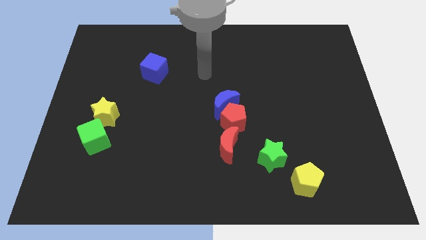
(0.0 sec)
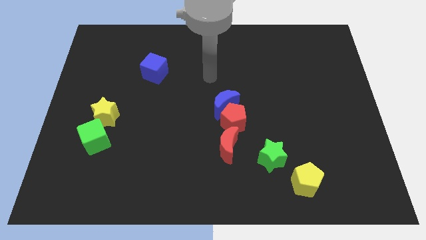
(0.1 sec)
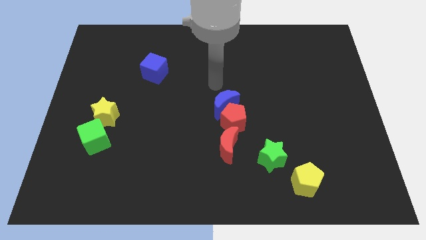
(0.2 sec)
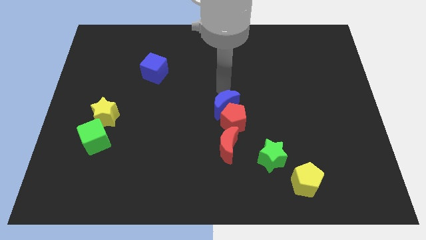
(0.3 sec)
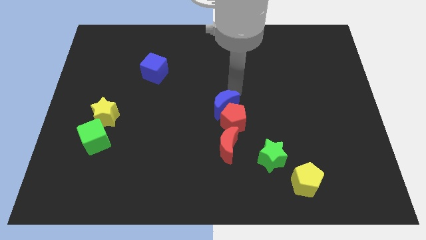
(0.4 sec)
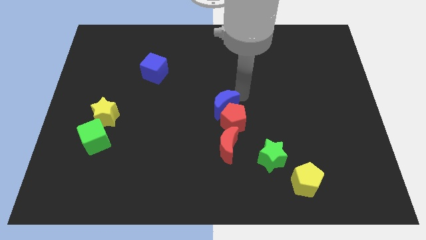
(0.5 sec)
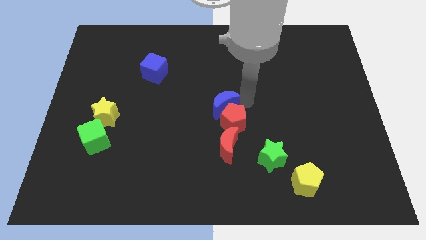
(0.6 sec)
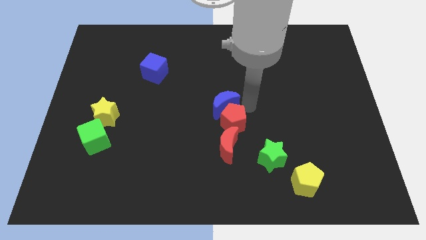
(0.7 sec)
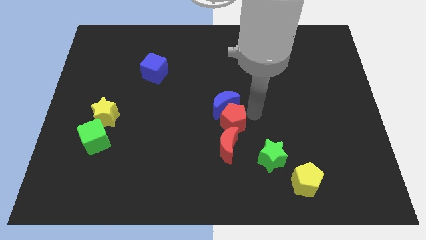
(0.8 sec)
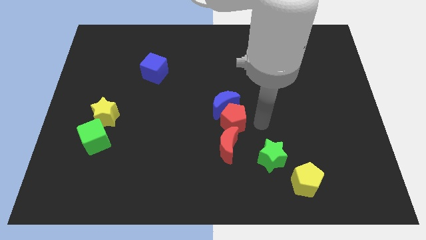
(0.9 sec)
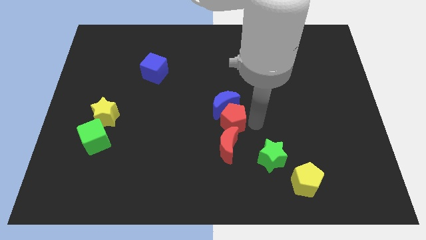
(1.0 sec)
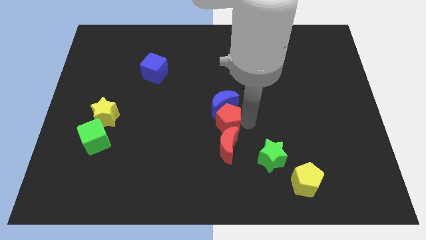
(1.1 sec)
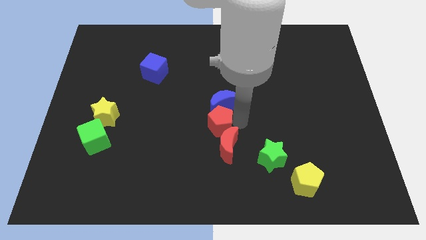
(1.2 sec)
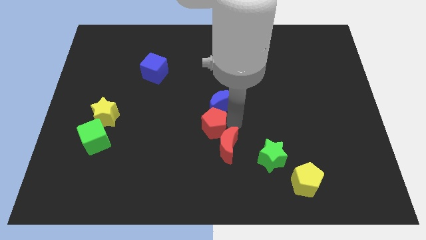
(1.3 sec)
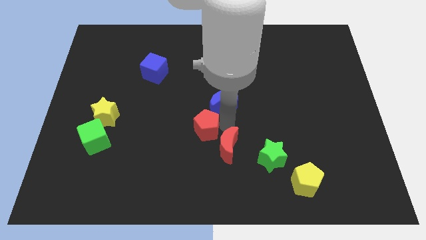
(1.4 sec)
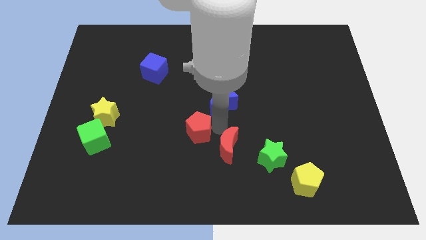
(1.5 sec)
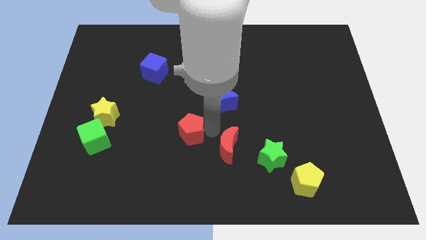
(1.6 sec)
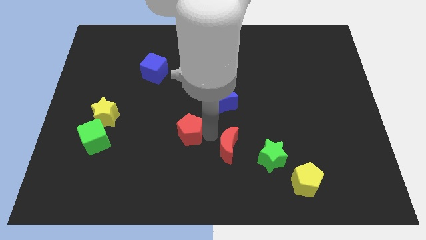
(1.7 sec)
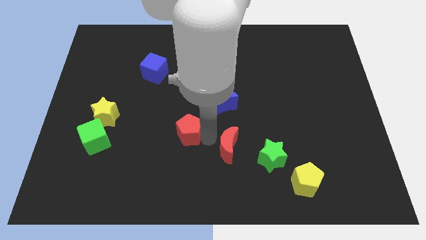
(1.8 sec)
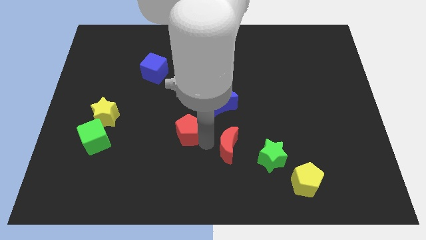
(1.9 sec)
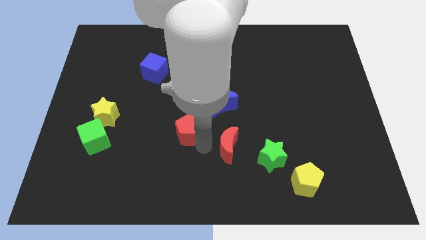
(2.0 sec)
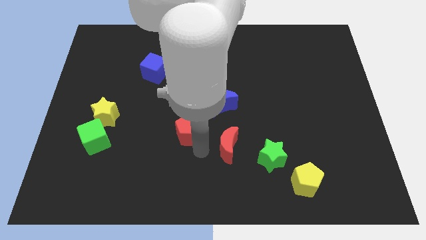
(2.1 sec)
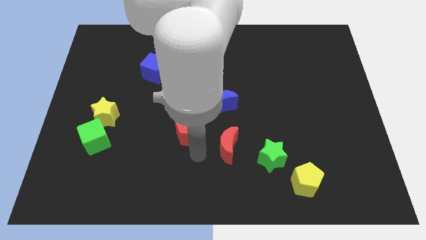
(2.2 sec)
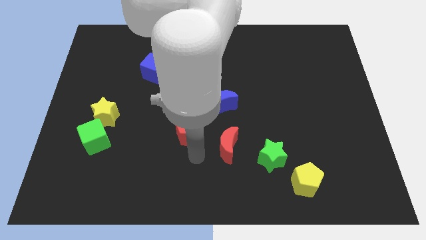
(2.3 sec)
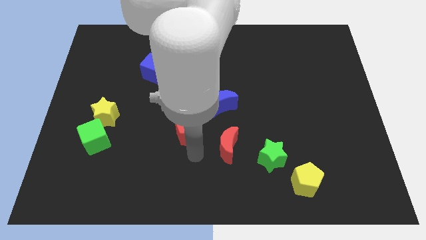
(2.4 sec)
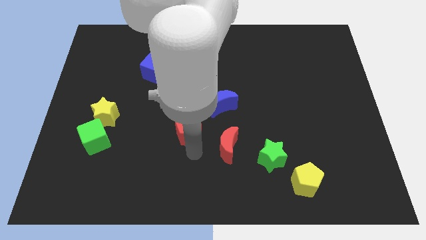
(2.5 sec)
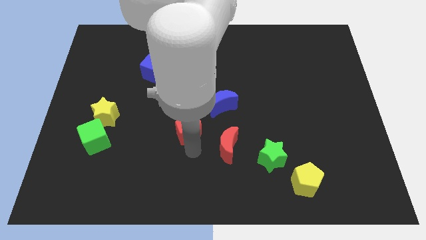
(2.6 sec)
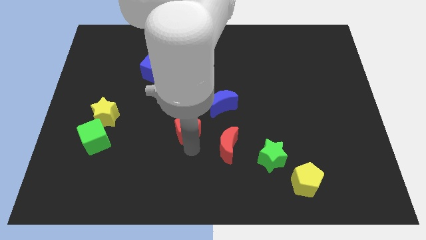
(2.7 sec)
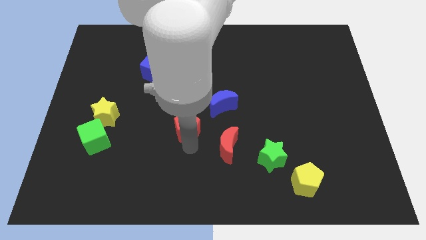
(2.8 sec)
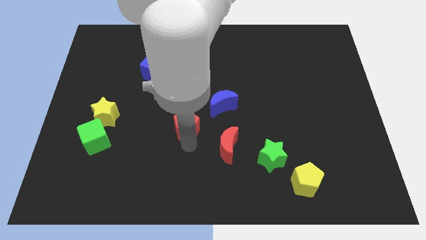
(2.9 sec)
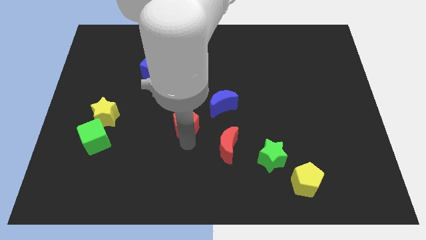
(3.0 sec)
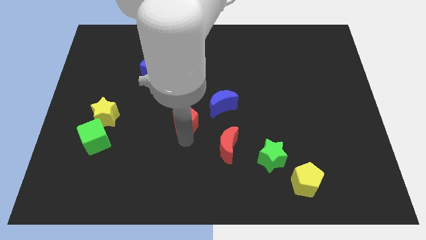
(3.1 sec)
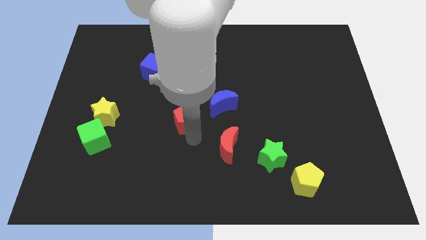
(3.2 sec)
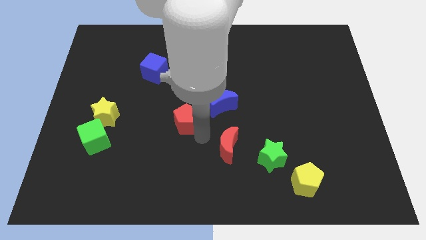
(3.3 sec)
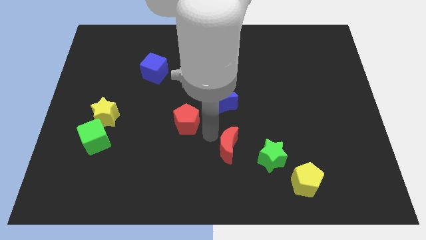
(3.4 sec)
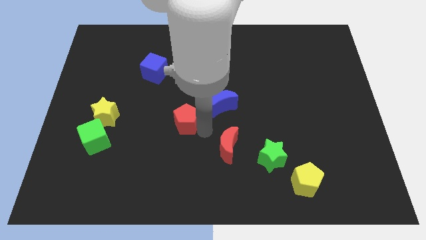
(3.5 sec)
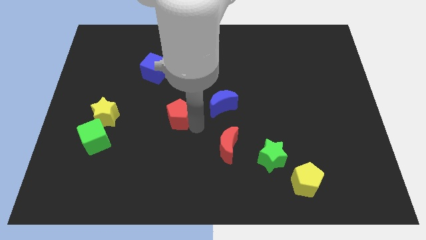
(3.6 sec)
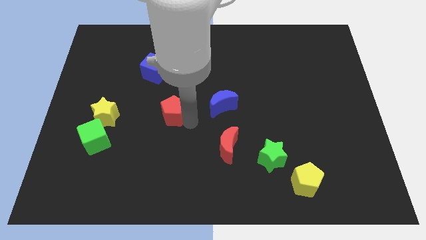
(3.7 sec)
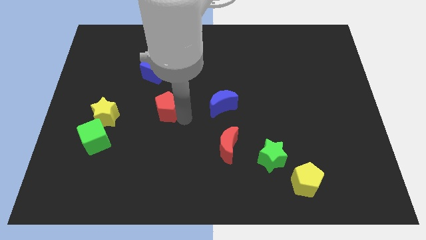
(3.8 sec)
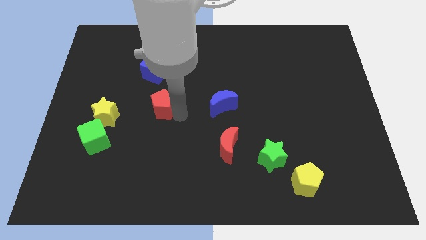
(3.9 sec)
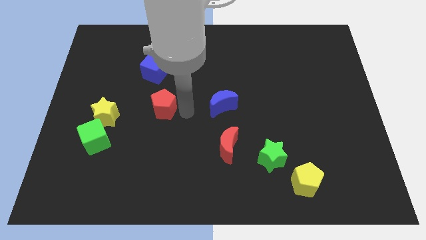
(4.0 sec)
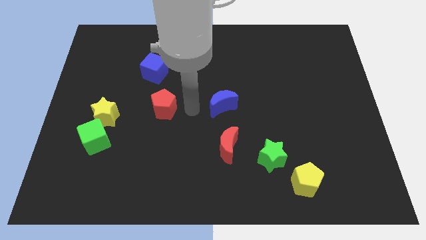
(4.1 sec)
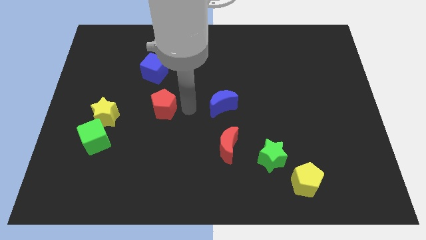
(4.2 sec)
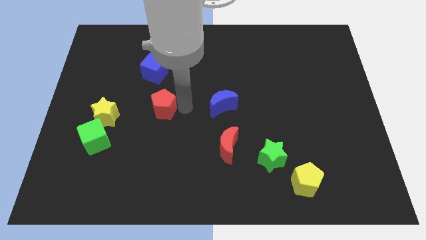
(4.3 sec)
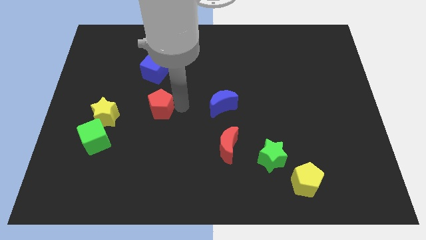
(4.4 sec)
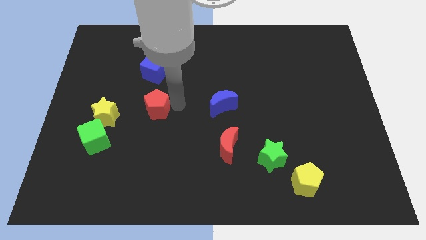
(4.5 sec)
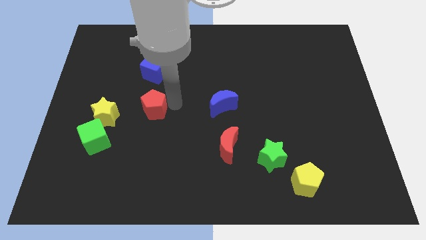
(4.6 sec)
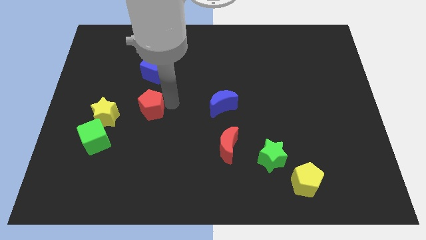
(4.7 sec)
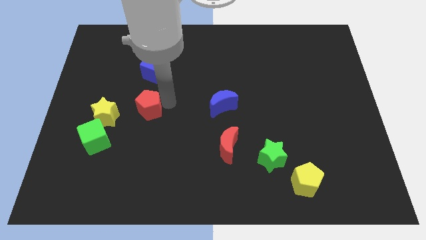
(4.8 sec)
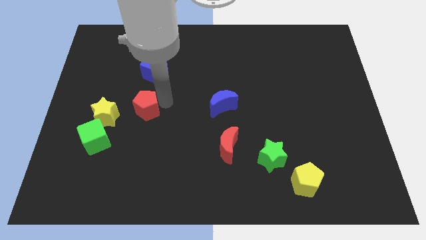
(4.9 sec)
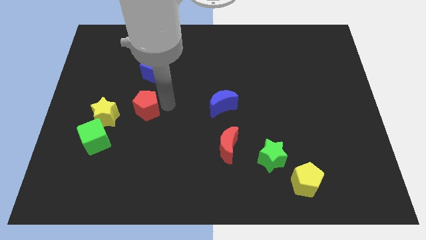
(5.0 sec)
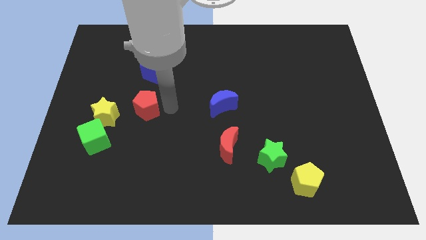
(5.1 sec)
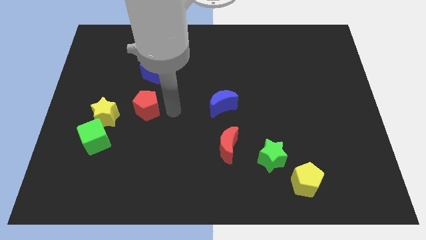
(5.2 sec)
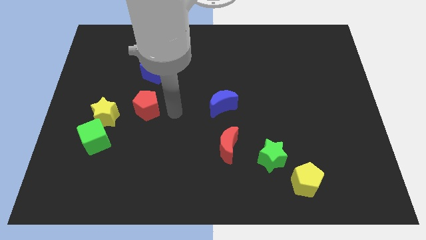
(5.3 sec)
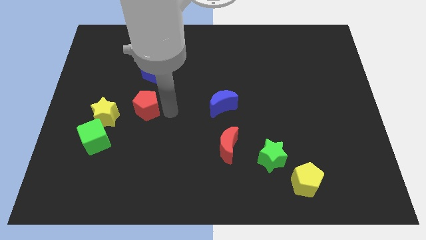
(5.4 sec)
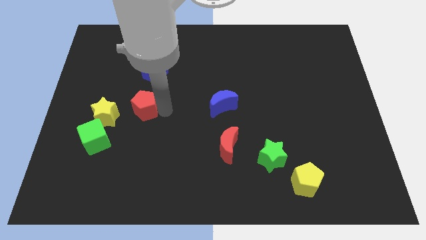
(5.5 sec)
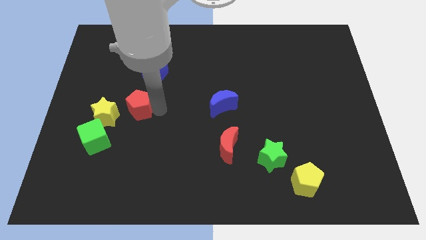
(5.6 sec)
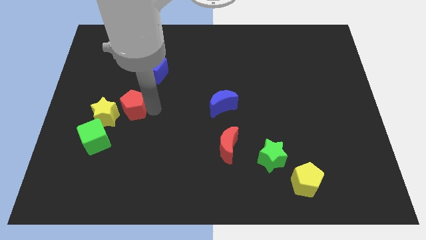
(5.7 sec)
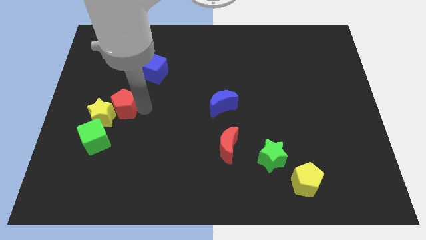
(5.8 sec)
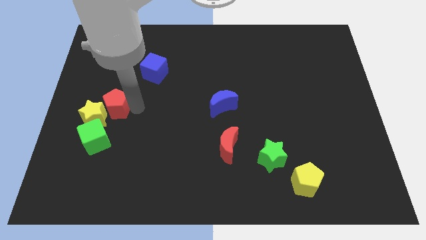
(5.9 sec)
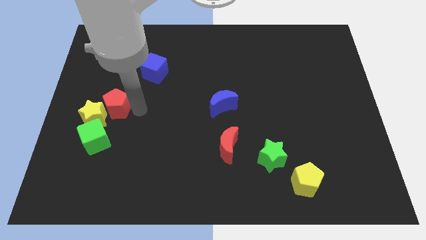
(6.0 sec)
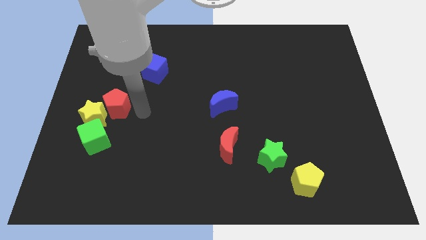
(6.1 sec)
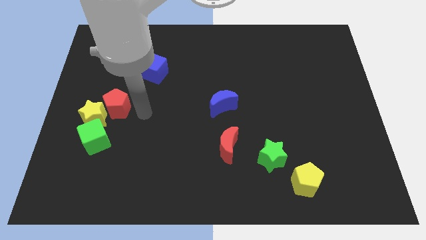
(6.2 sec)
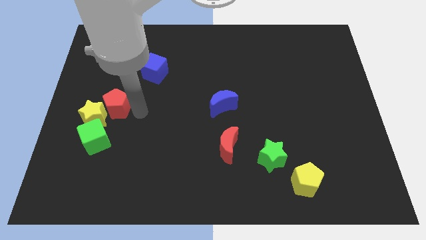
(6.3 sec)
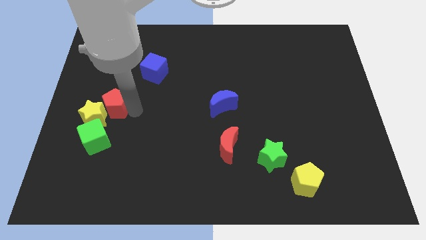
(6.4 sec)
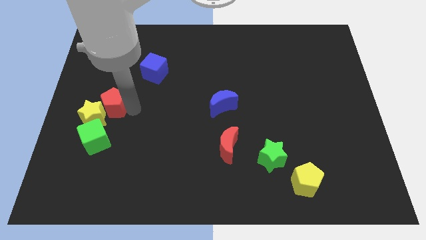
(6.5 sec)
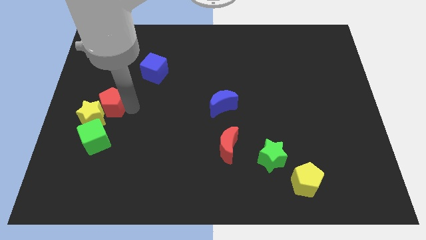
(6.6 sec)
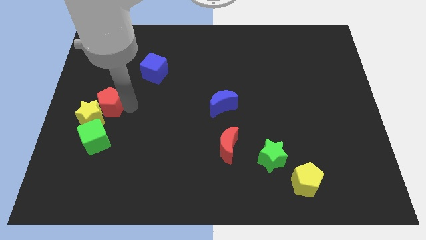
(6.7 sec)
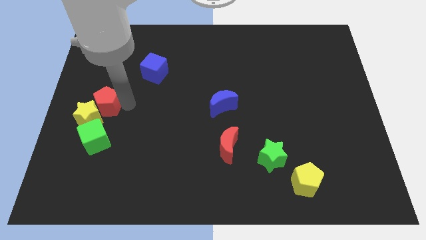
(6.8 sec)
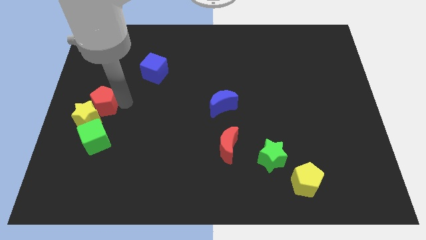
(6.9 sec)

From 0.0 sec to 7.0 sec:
put the red pentagon to the left side
